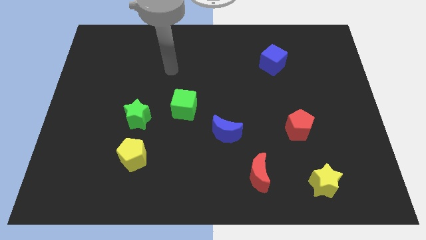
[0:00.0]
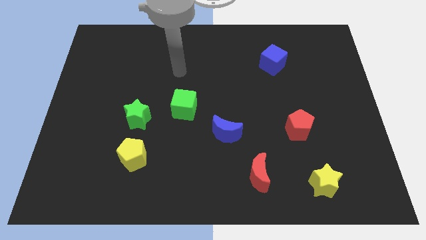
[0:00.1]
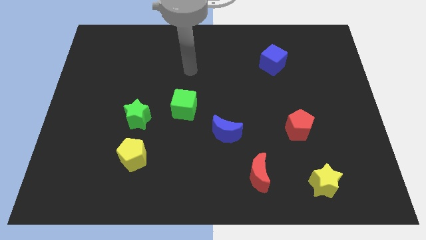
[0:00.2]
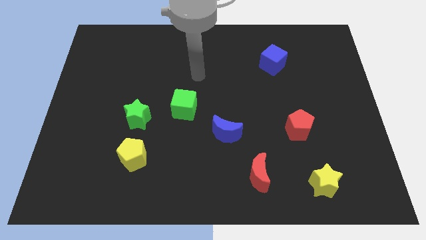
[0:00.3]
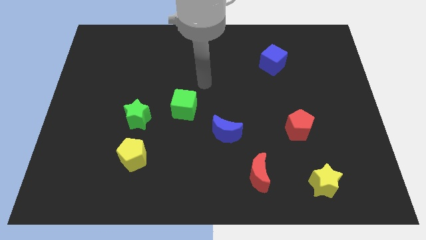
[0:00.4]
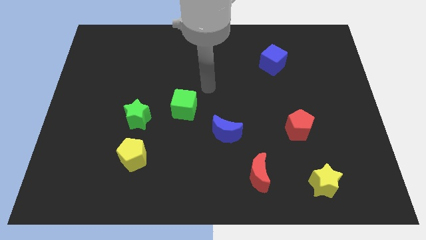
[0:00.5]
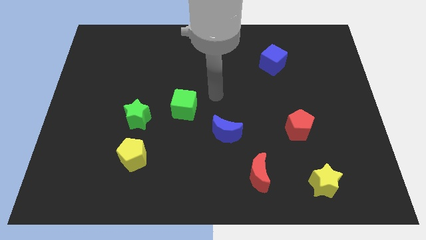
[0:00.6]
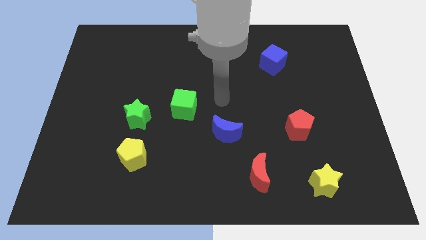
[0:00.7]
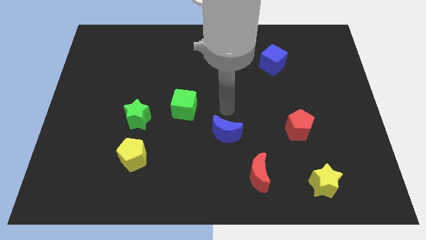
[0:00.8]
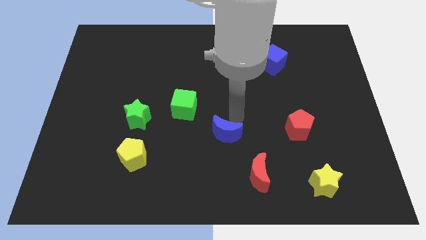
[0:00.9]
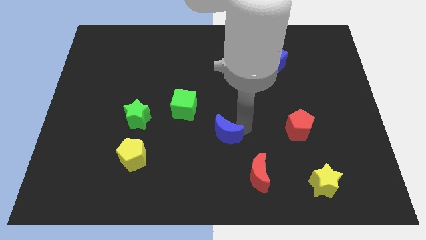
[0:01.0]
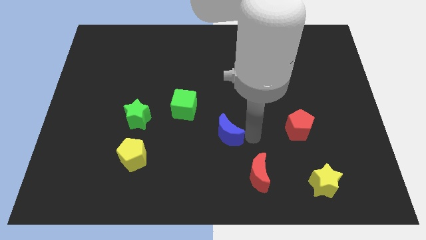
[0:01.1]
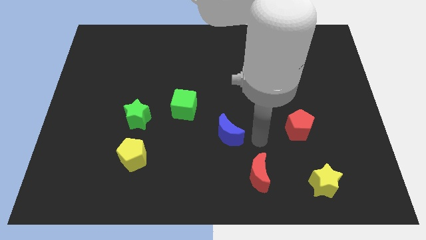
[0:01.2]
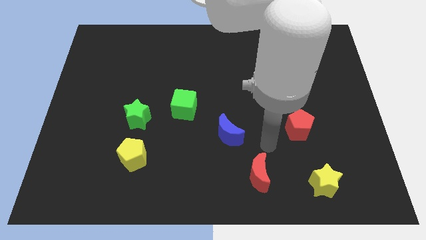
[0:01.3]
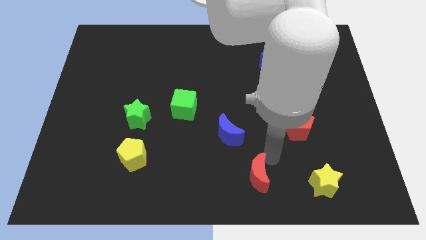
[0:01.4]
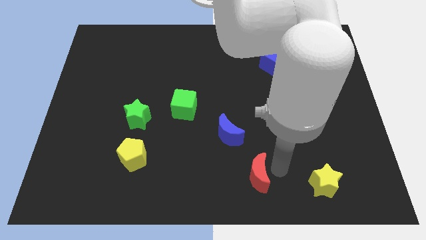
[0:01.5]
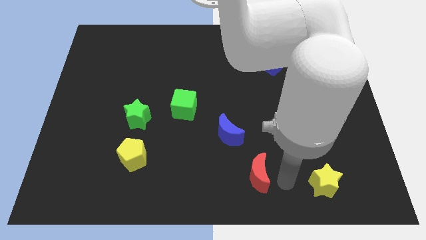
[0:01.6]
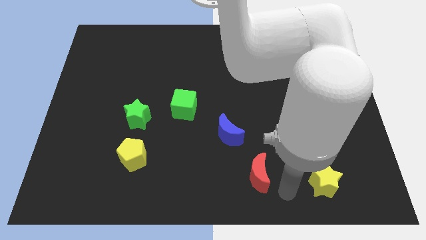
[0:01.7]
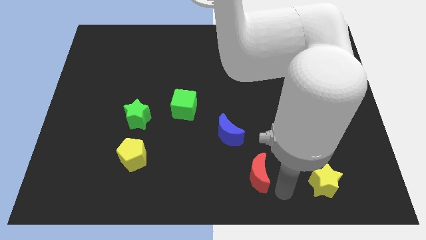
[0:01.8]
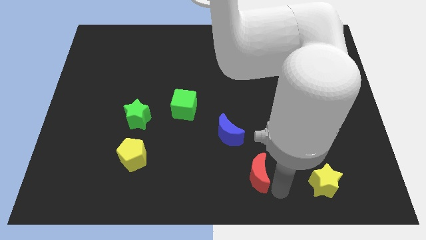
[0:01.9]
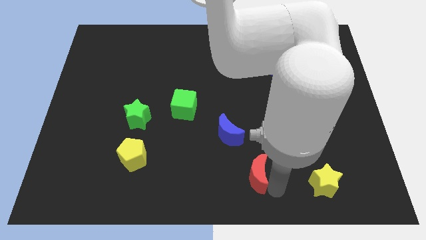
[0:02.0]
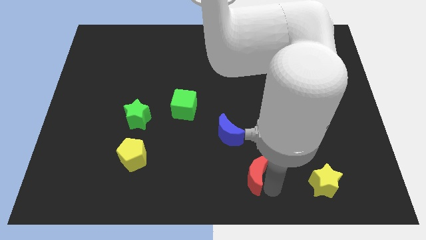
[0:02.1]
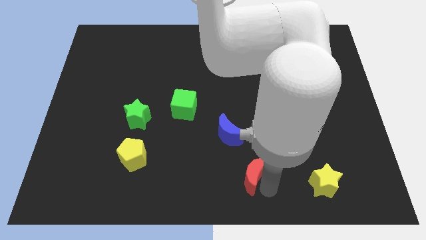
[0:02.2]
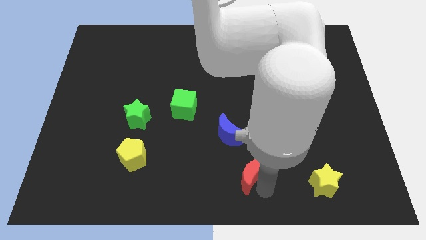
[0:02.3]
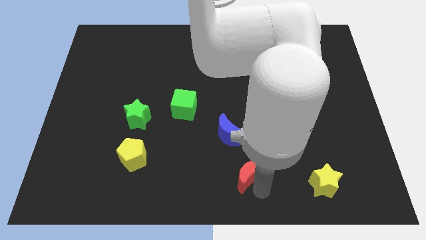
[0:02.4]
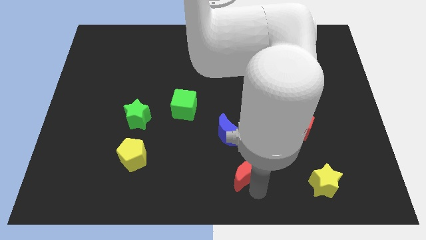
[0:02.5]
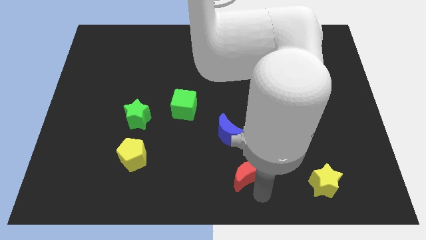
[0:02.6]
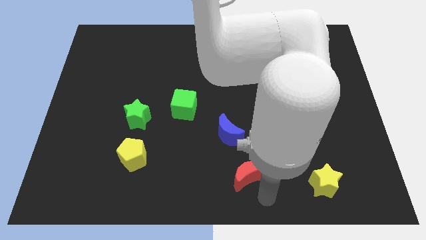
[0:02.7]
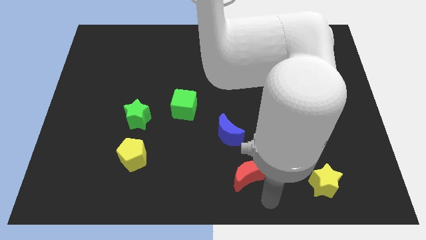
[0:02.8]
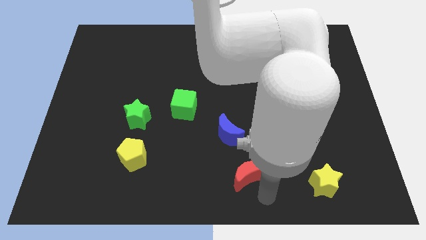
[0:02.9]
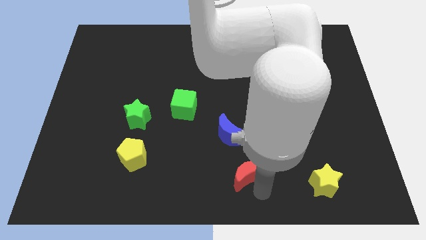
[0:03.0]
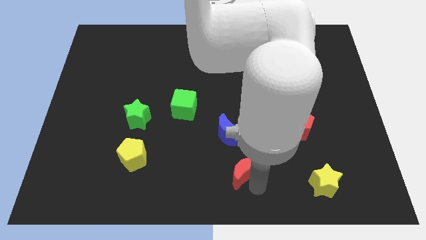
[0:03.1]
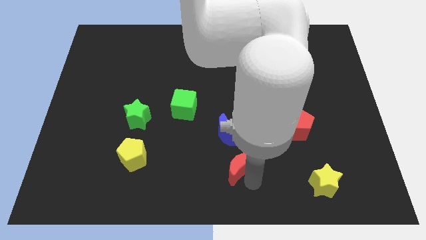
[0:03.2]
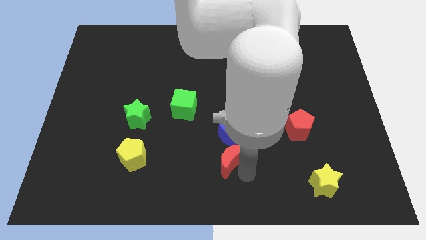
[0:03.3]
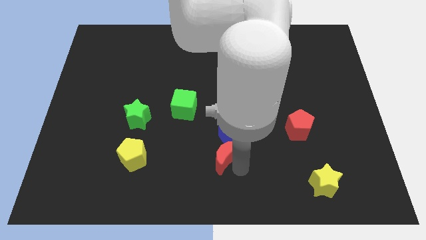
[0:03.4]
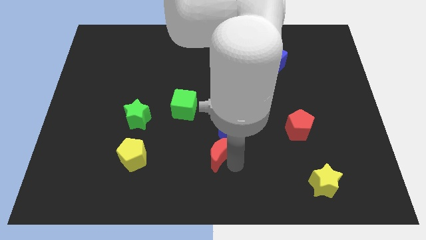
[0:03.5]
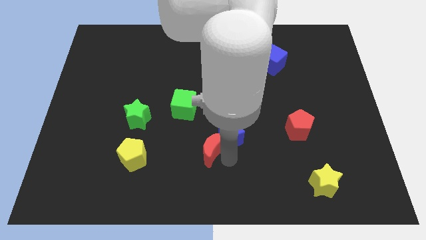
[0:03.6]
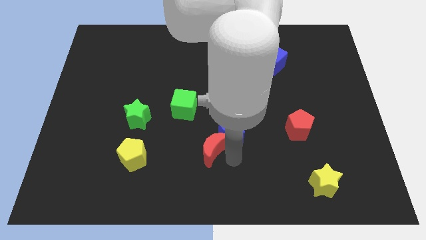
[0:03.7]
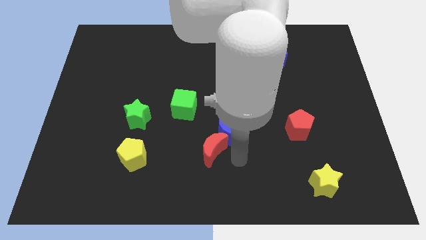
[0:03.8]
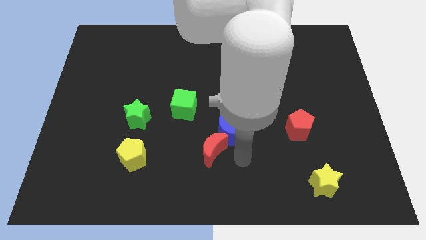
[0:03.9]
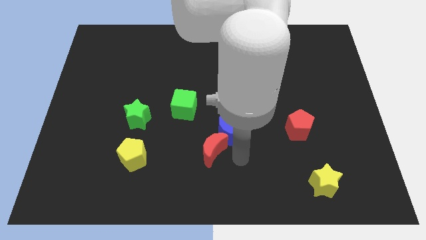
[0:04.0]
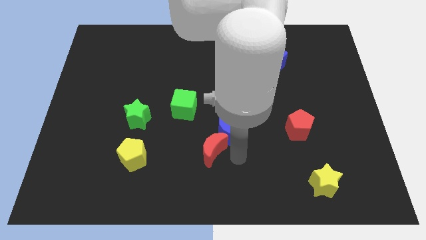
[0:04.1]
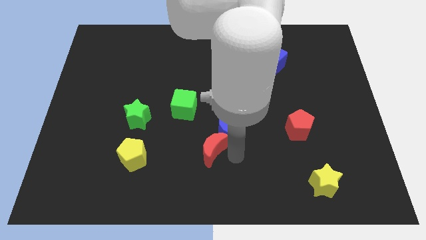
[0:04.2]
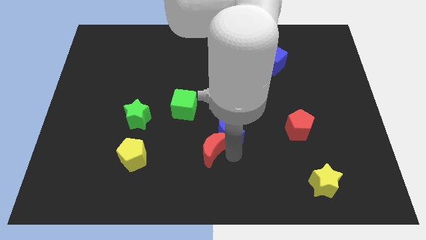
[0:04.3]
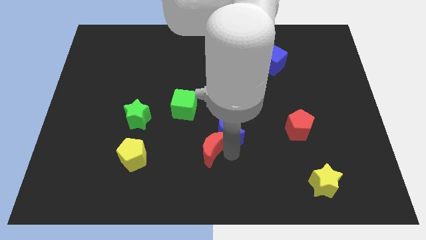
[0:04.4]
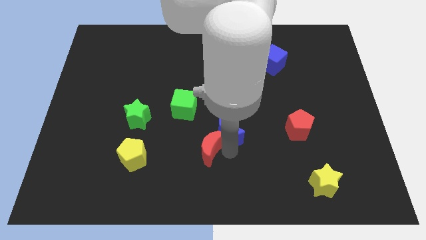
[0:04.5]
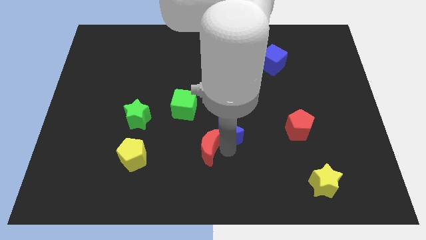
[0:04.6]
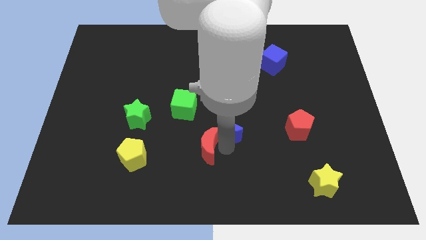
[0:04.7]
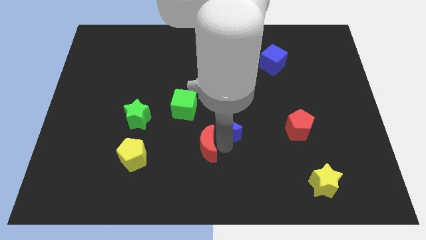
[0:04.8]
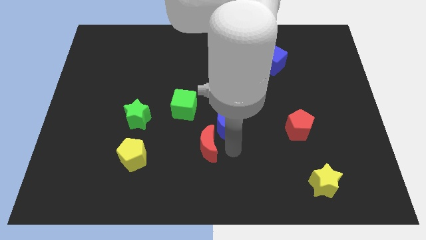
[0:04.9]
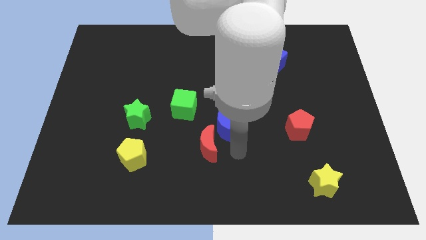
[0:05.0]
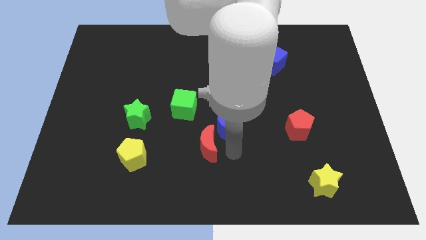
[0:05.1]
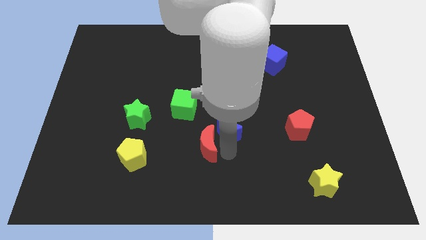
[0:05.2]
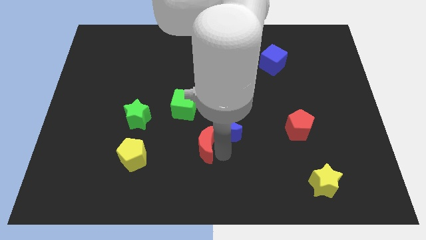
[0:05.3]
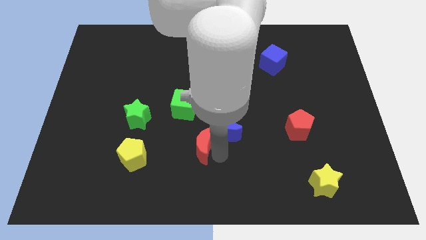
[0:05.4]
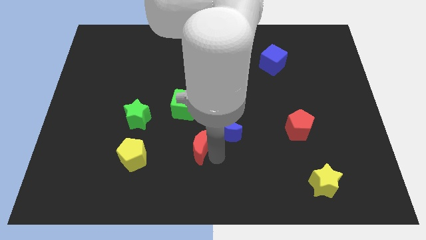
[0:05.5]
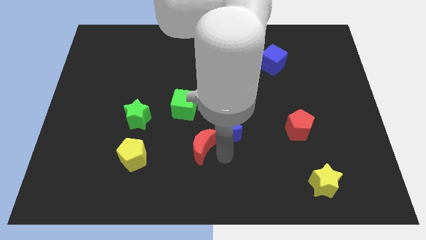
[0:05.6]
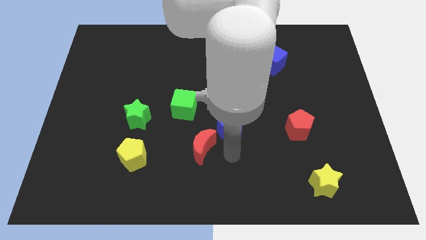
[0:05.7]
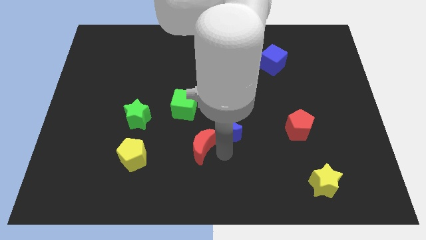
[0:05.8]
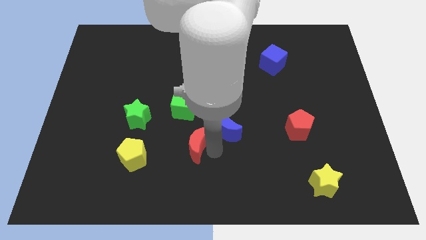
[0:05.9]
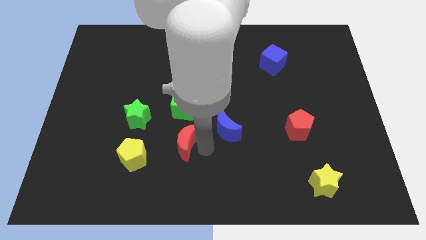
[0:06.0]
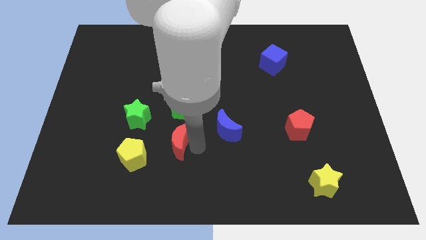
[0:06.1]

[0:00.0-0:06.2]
move the red moon to the bottom right of the green star

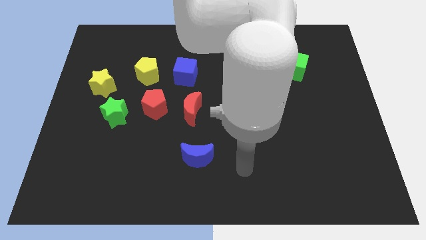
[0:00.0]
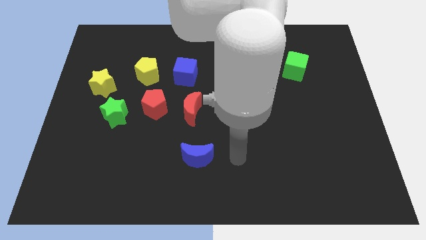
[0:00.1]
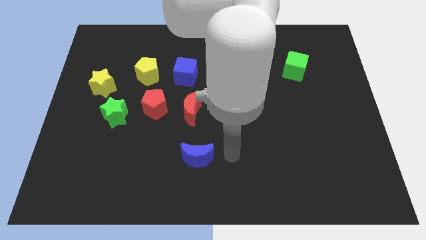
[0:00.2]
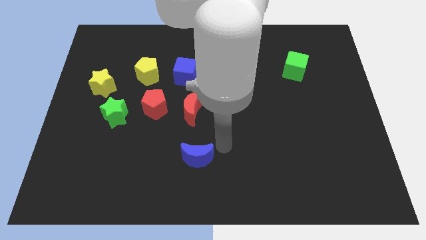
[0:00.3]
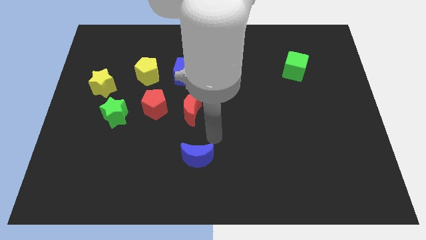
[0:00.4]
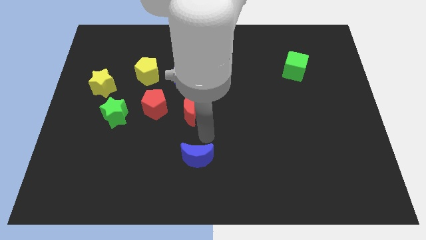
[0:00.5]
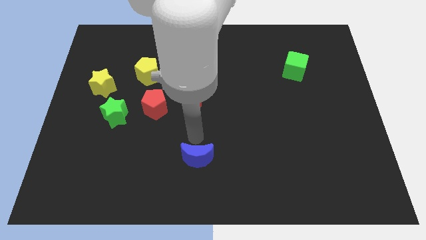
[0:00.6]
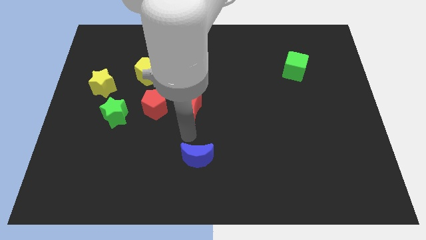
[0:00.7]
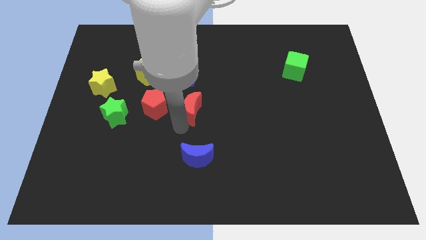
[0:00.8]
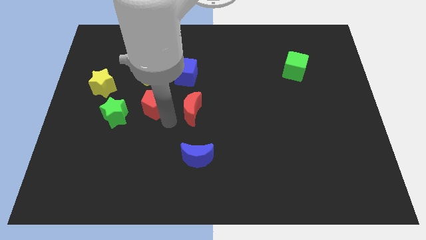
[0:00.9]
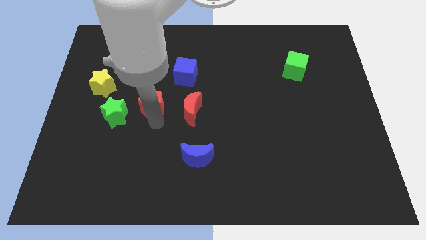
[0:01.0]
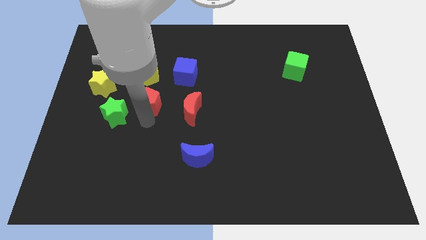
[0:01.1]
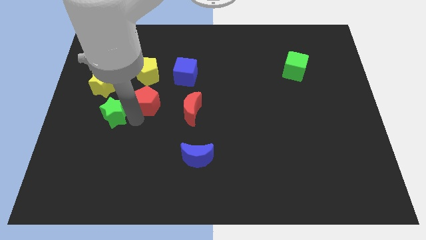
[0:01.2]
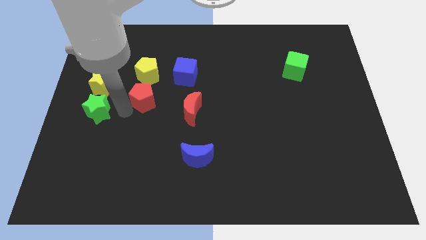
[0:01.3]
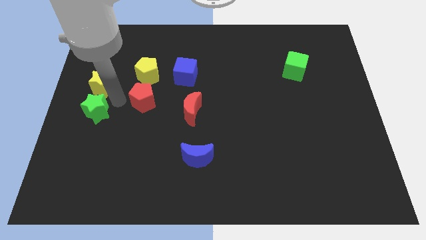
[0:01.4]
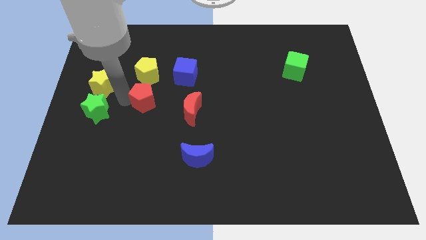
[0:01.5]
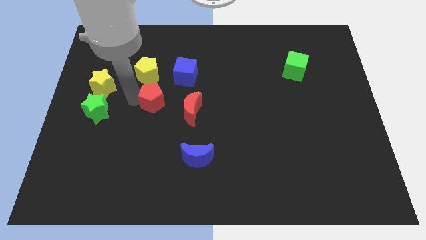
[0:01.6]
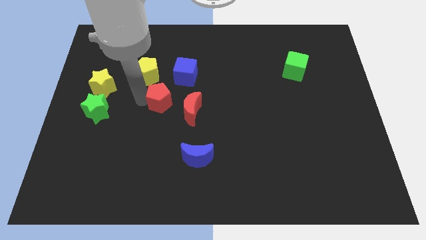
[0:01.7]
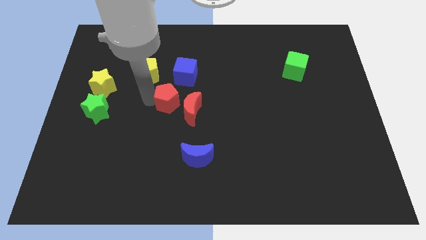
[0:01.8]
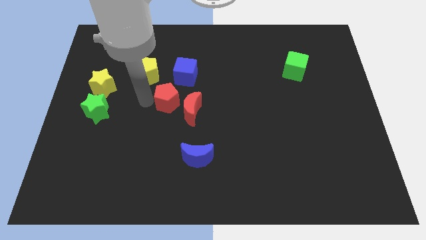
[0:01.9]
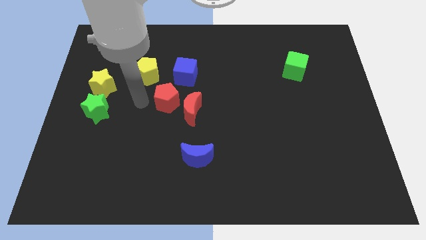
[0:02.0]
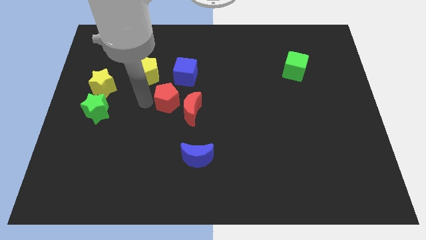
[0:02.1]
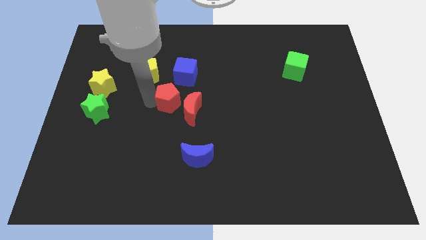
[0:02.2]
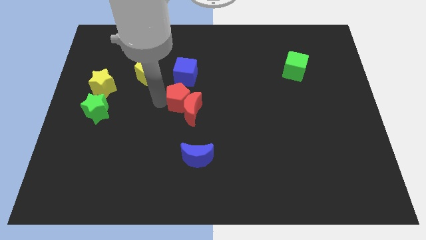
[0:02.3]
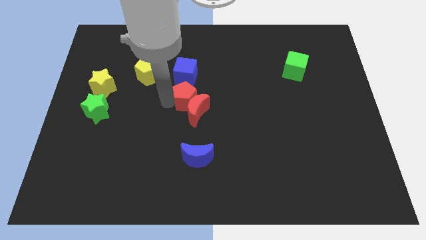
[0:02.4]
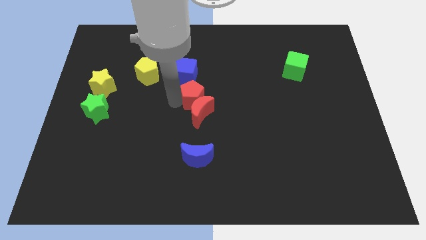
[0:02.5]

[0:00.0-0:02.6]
slide the red pentagon diagonally down and to the right of the blue cube
